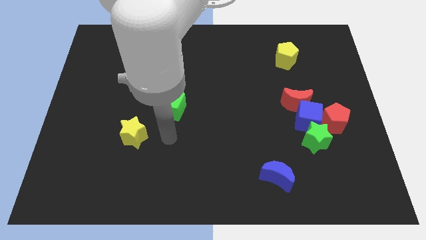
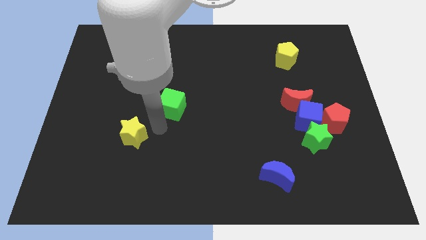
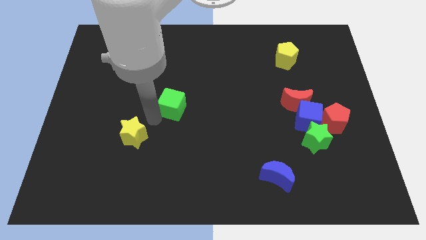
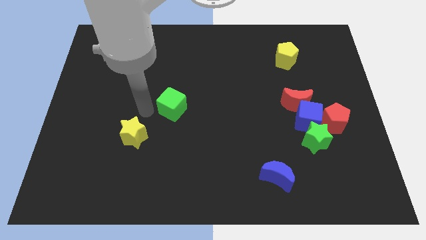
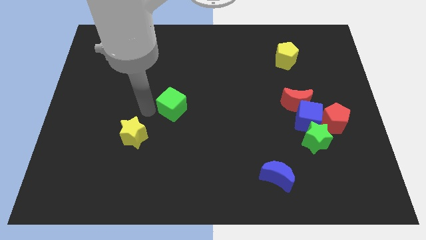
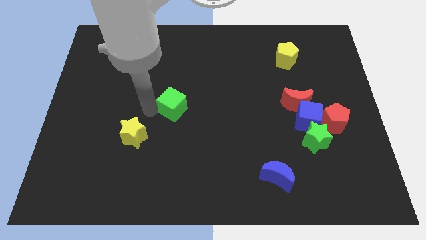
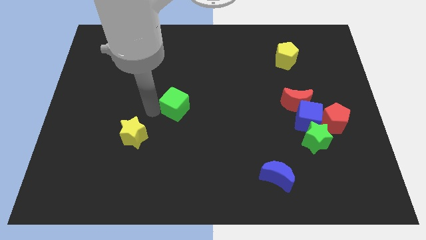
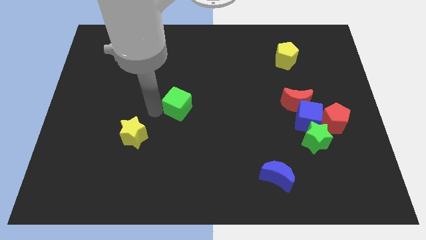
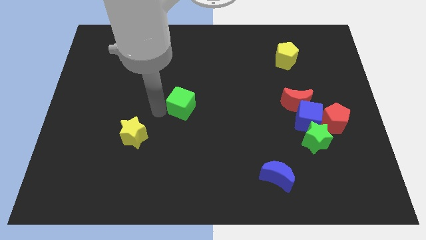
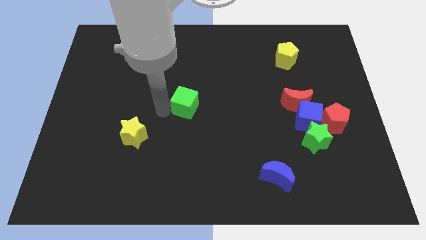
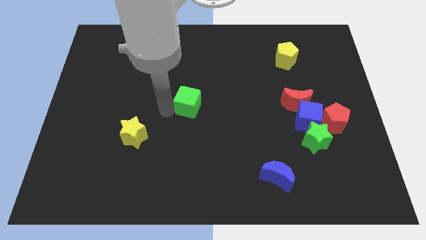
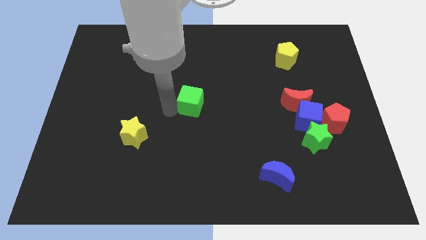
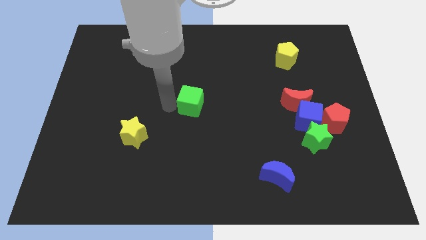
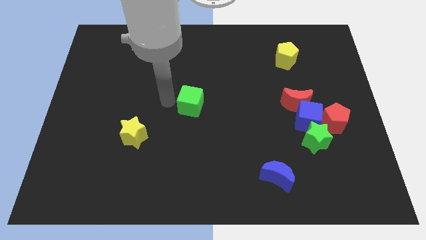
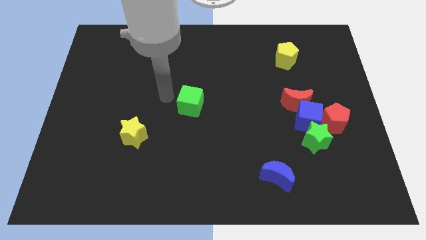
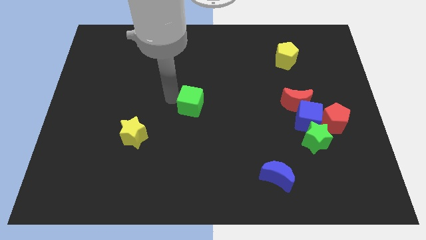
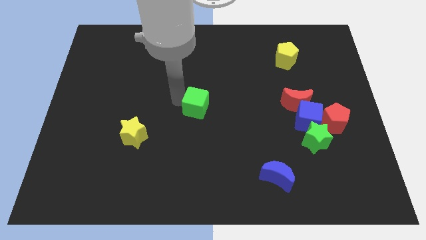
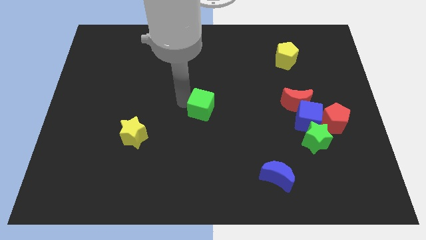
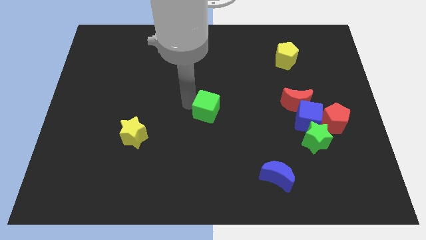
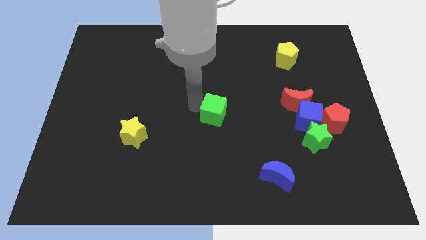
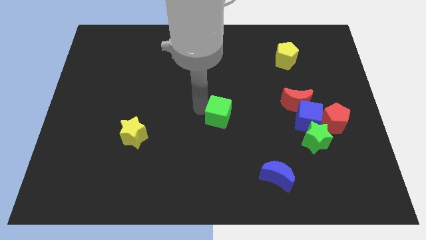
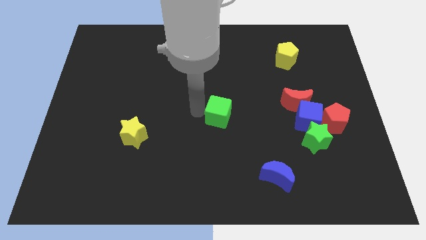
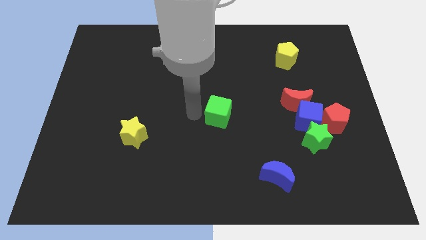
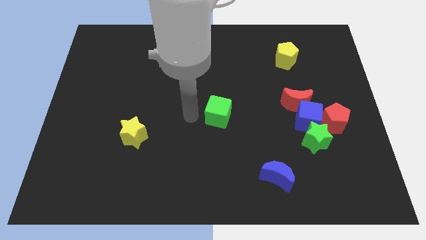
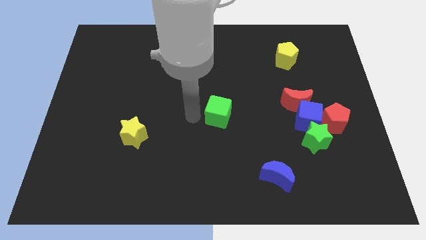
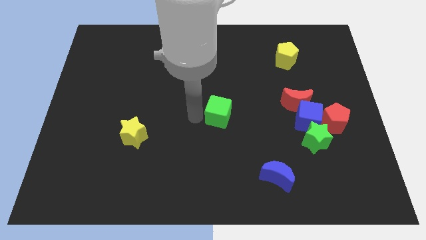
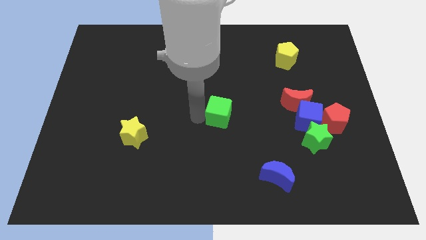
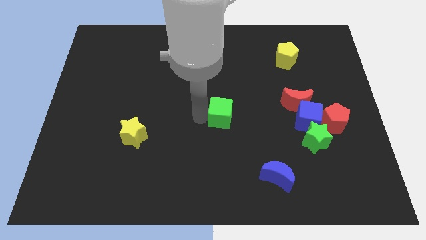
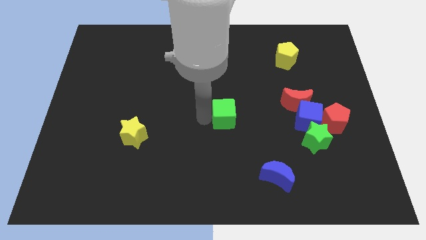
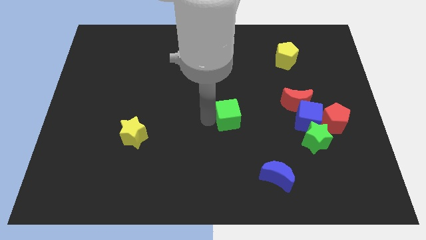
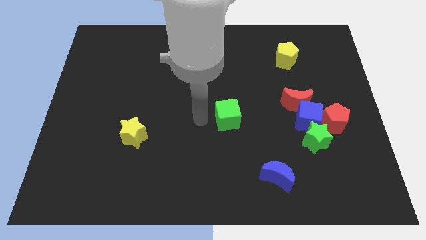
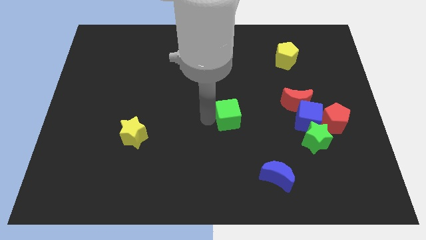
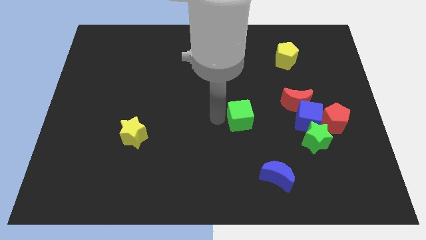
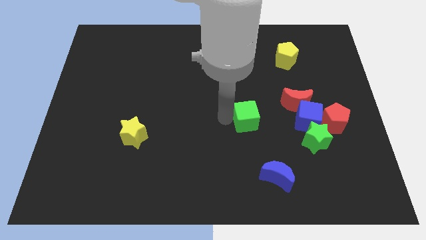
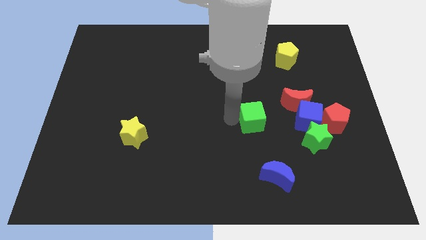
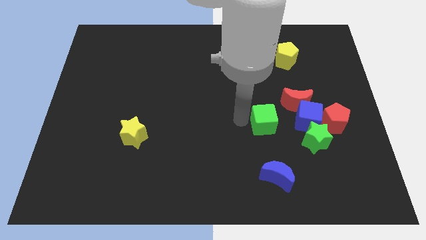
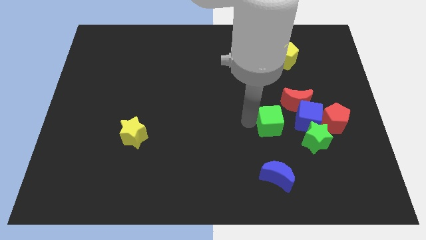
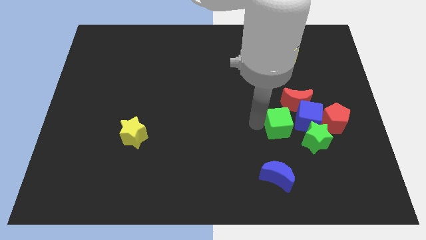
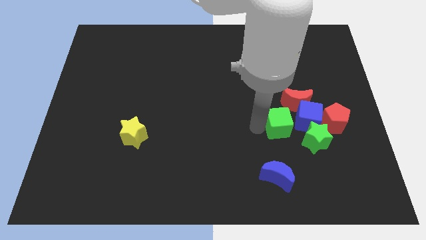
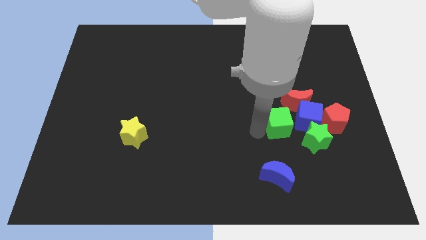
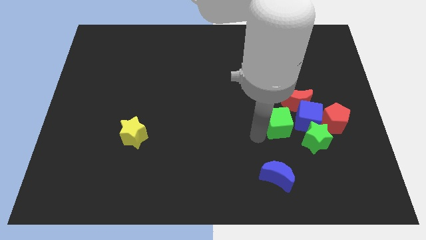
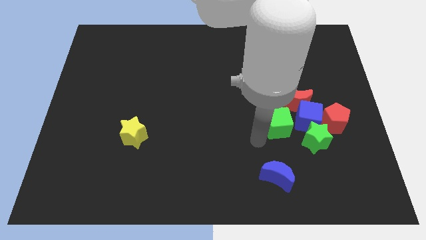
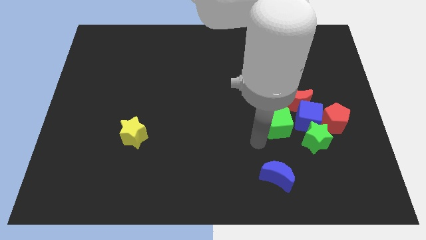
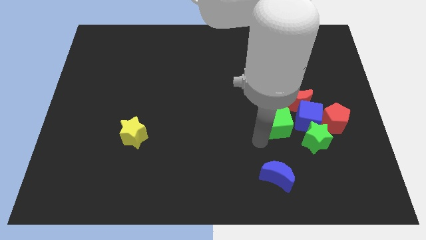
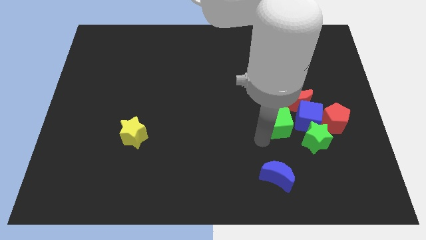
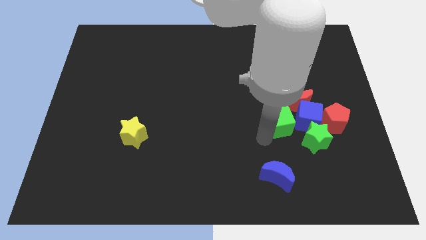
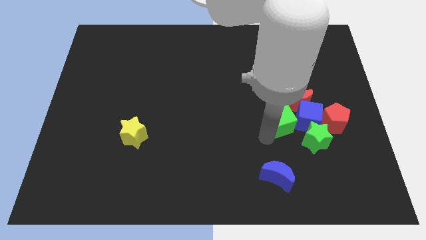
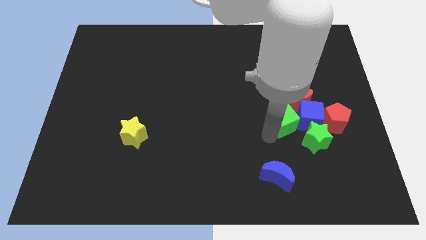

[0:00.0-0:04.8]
slide the green cube next to the blue cube

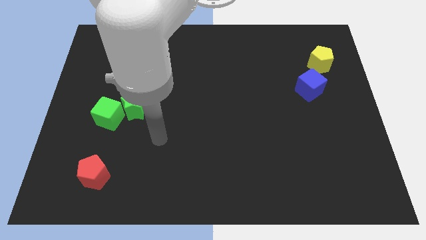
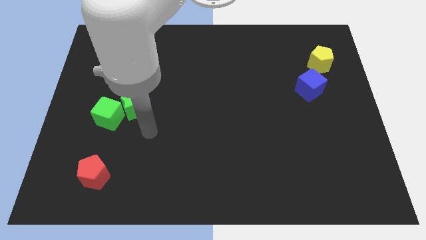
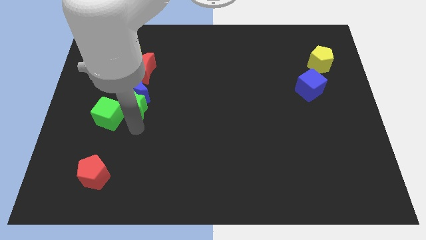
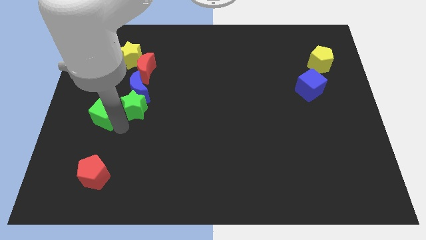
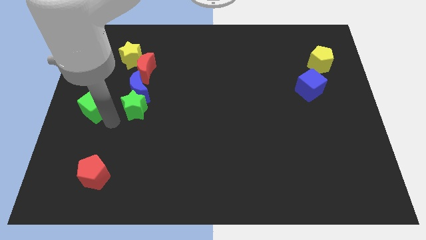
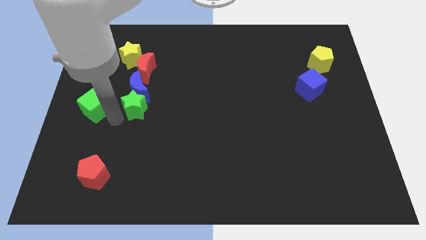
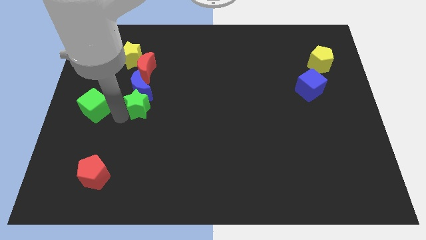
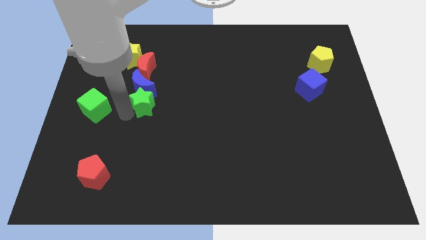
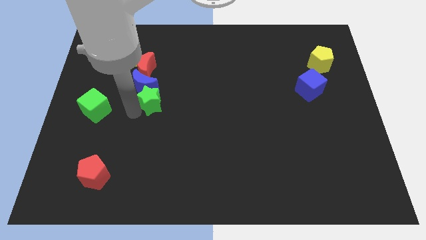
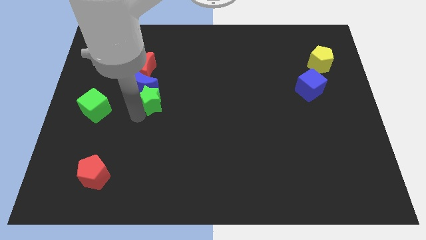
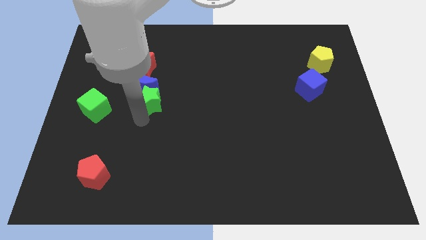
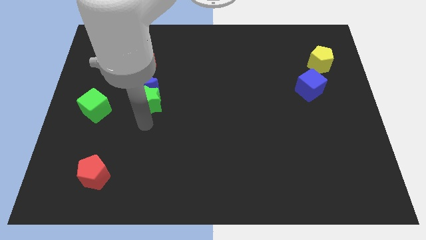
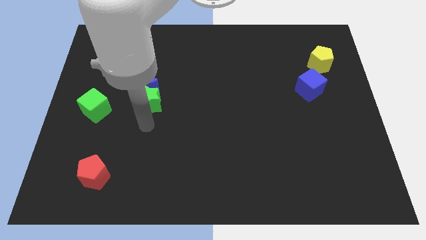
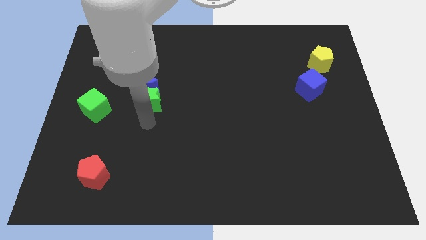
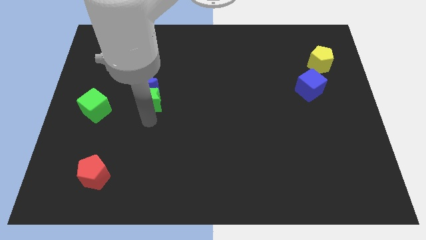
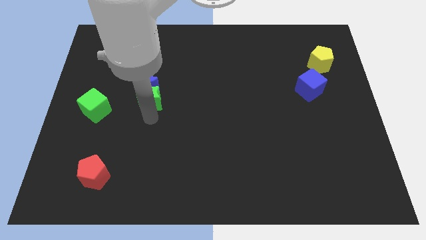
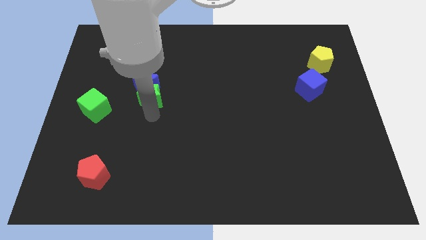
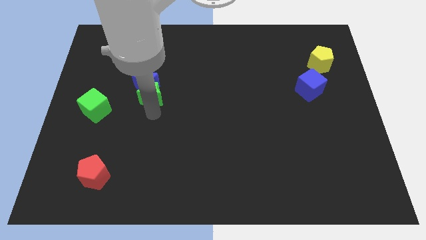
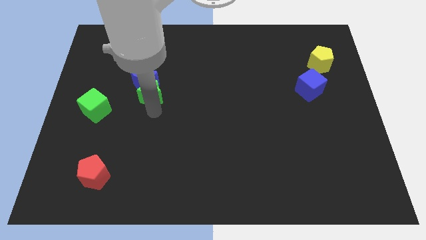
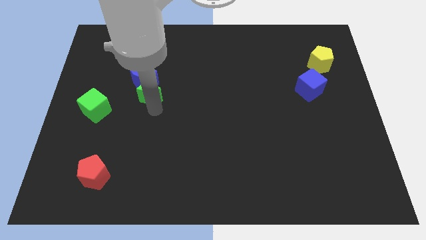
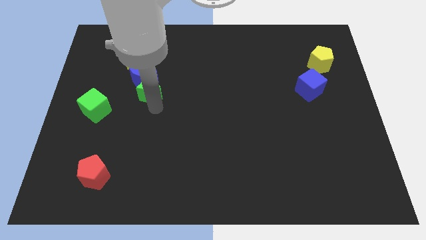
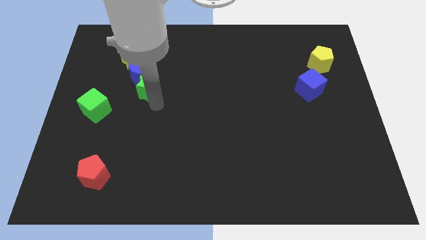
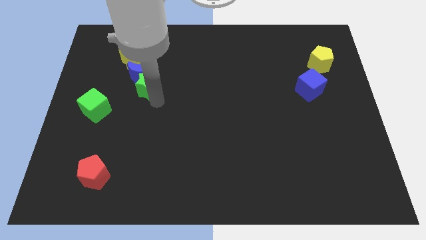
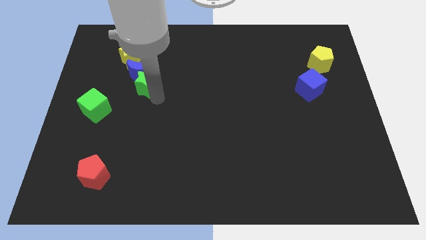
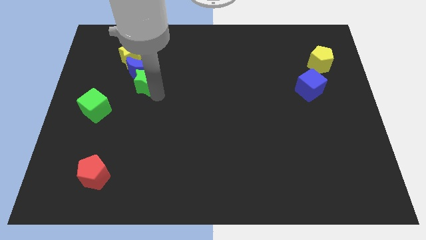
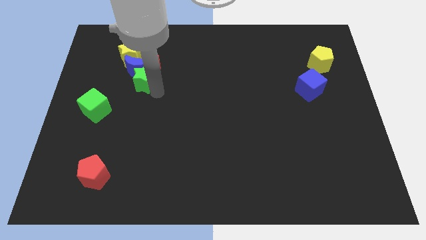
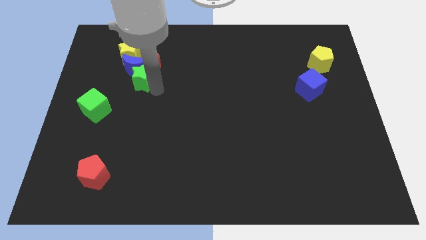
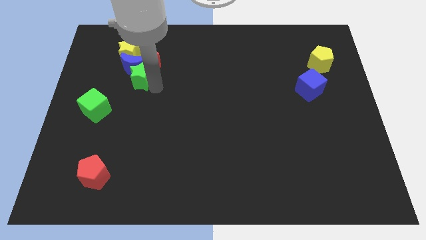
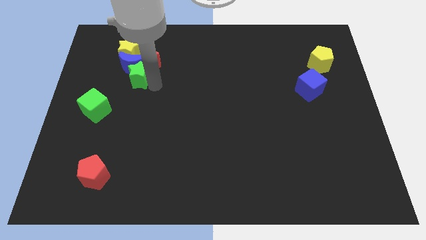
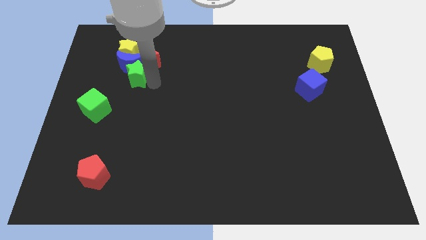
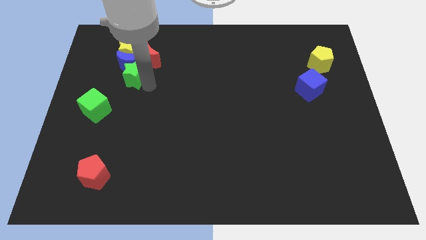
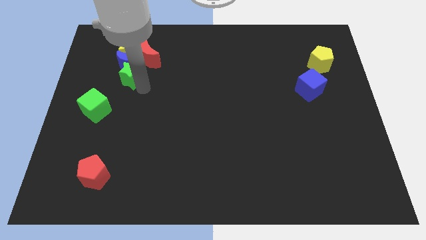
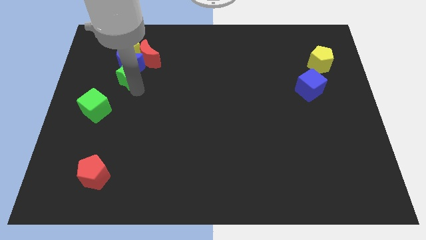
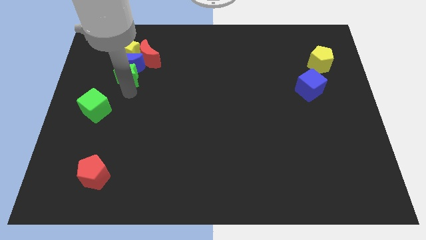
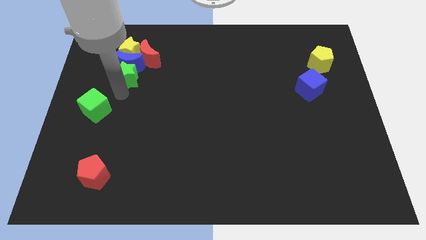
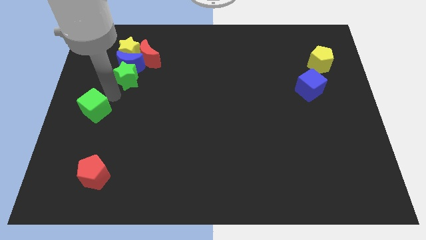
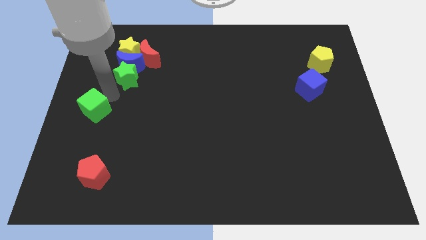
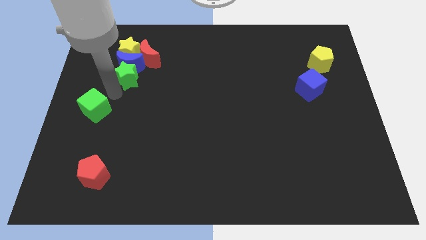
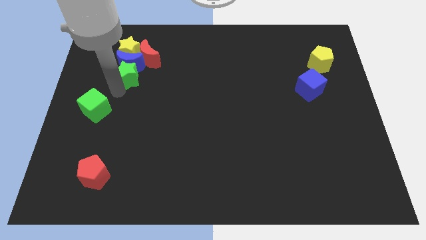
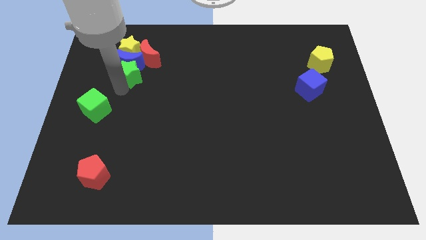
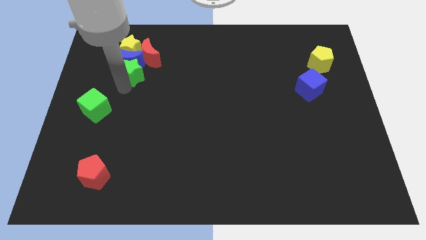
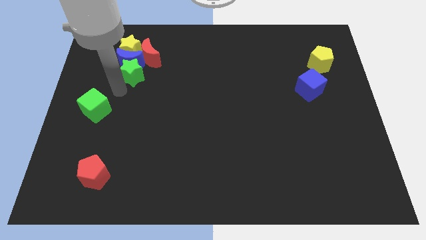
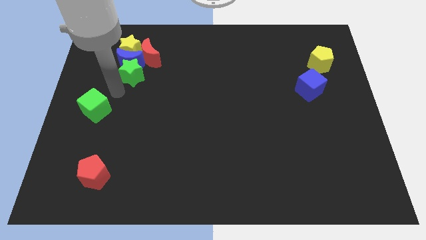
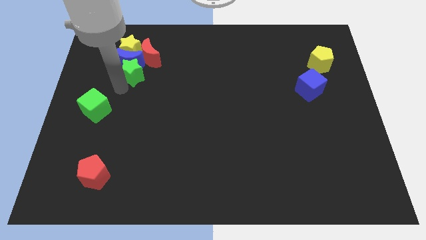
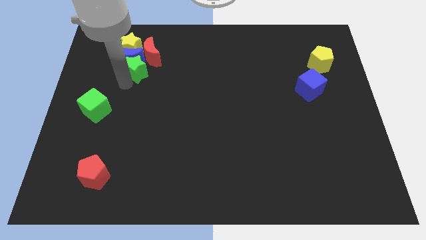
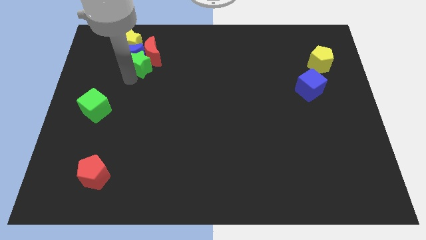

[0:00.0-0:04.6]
slide the green star to the red moon
